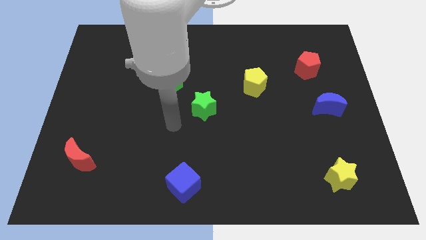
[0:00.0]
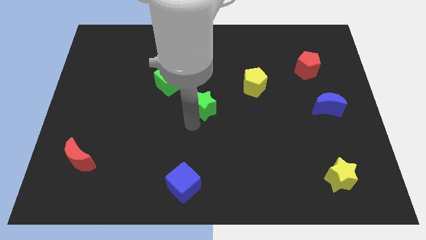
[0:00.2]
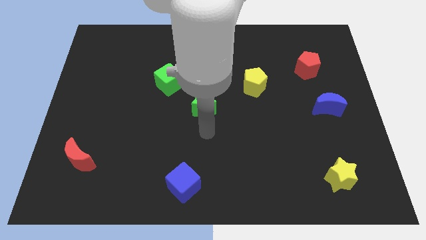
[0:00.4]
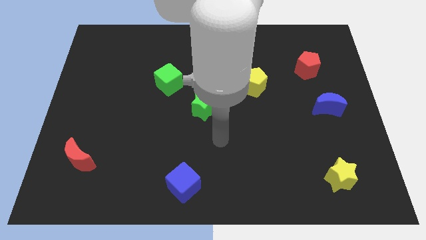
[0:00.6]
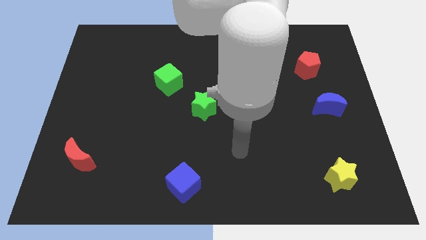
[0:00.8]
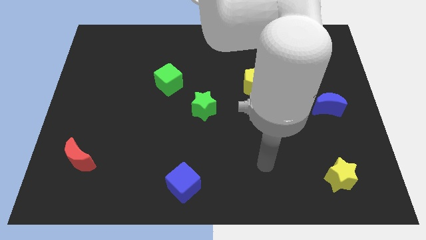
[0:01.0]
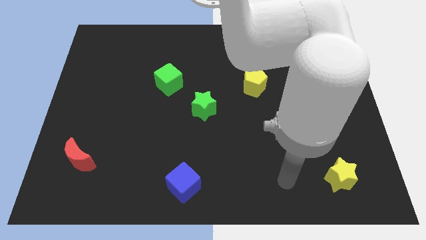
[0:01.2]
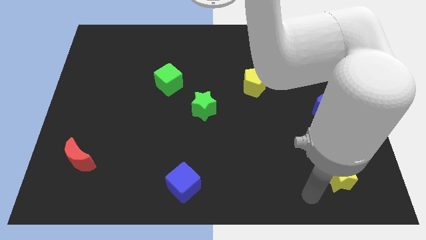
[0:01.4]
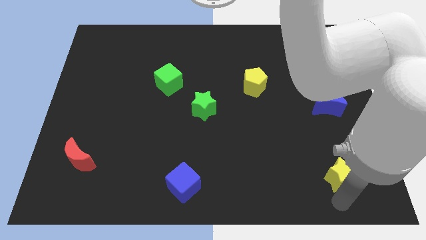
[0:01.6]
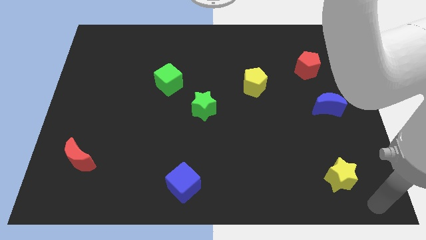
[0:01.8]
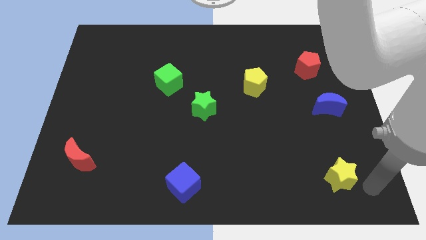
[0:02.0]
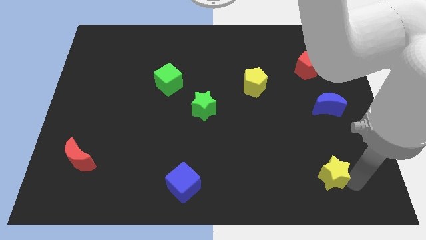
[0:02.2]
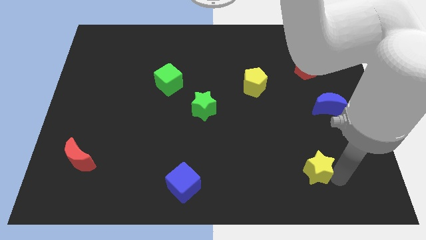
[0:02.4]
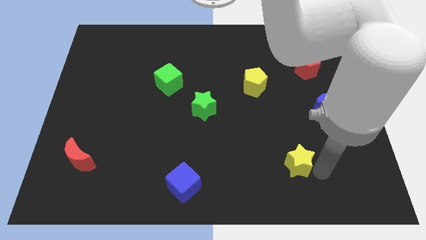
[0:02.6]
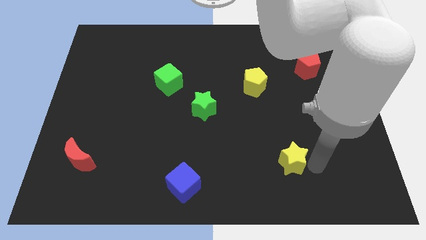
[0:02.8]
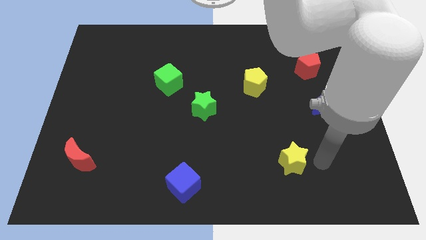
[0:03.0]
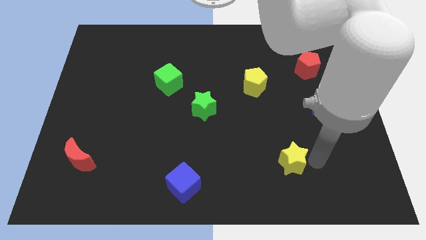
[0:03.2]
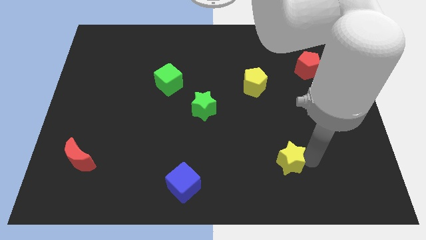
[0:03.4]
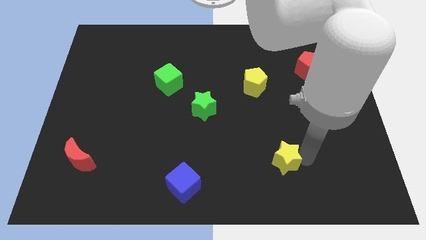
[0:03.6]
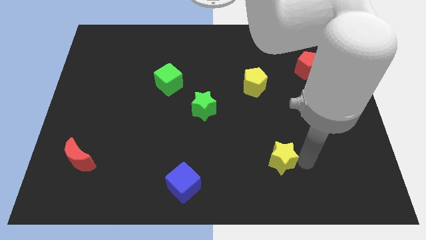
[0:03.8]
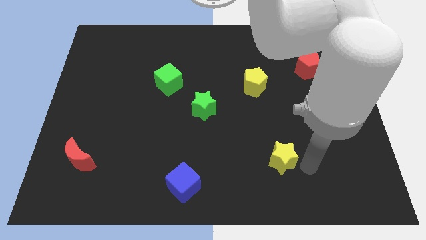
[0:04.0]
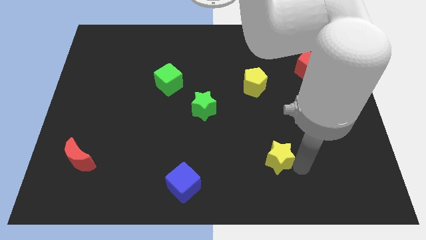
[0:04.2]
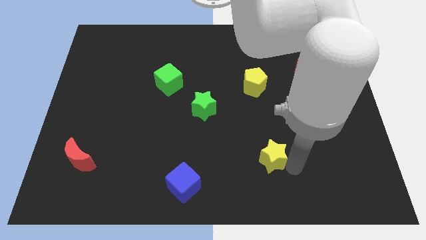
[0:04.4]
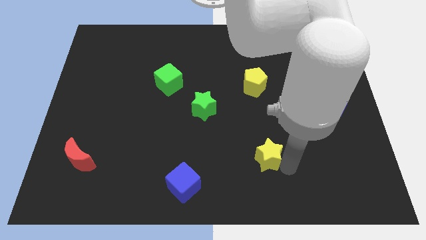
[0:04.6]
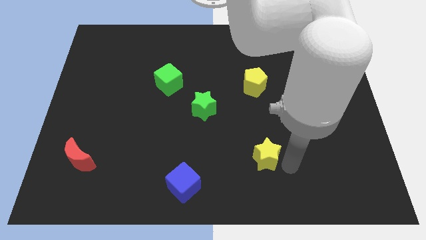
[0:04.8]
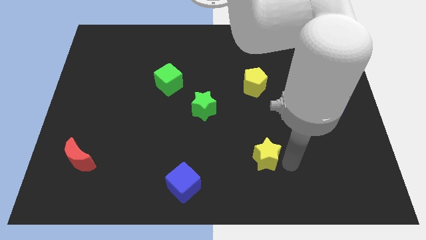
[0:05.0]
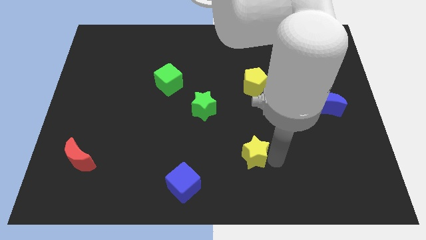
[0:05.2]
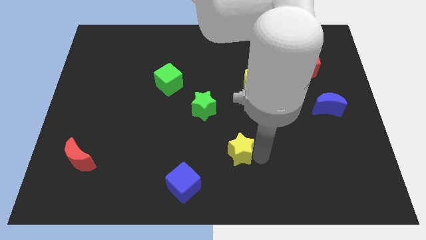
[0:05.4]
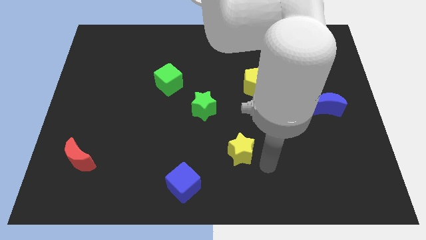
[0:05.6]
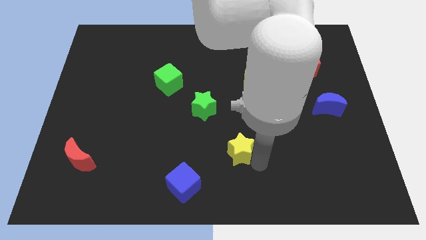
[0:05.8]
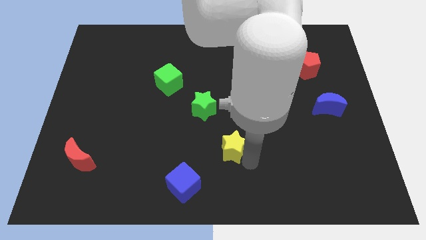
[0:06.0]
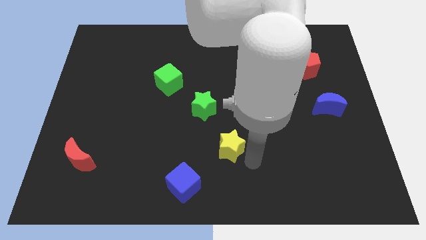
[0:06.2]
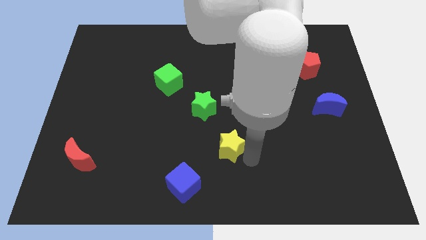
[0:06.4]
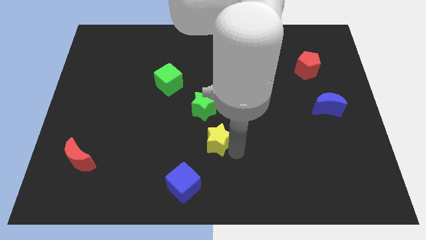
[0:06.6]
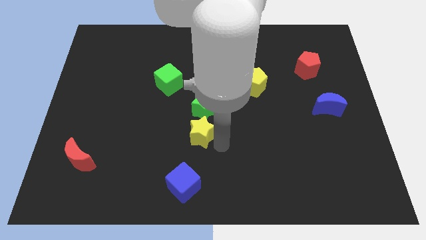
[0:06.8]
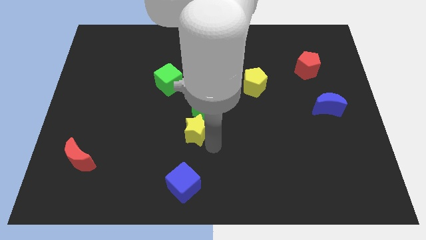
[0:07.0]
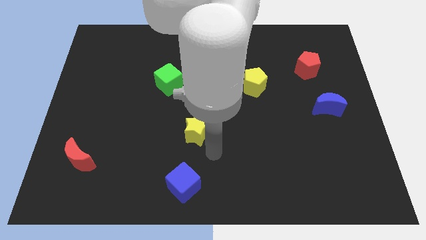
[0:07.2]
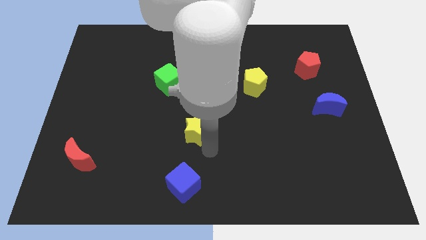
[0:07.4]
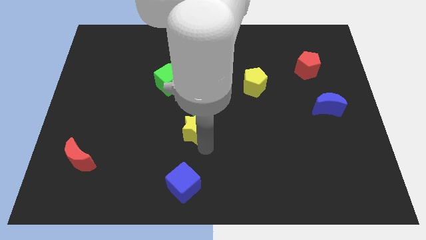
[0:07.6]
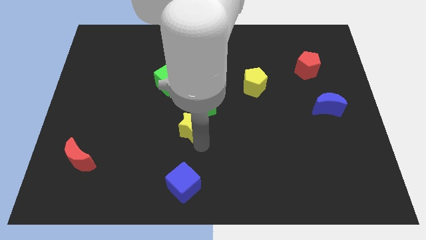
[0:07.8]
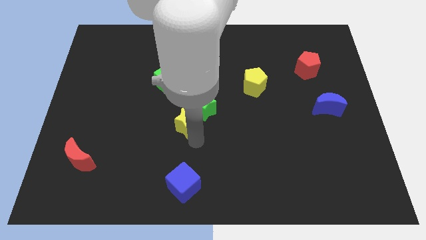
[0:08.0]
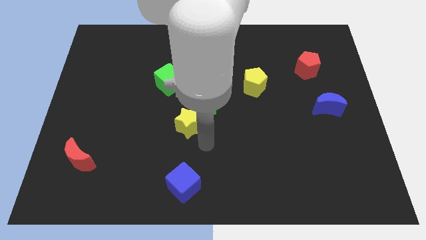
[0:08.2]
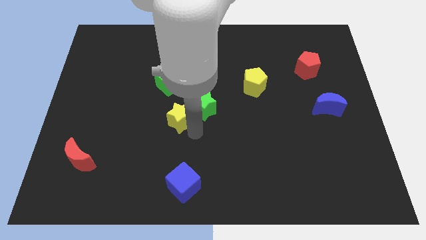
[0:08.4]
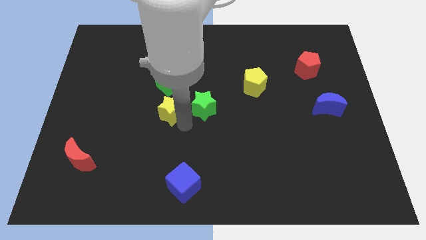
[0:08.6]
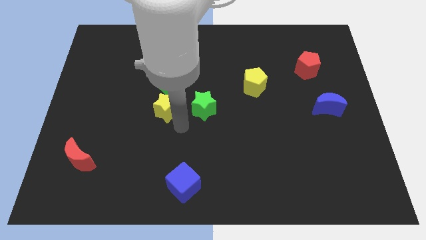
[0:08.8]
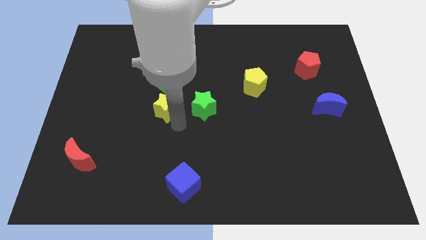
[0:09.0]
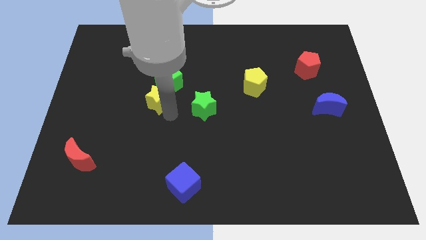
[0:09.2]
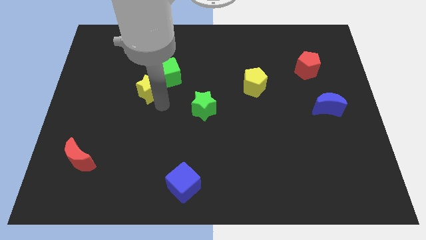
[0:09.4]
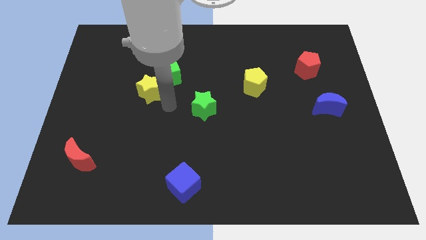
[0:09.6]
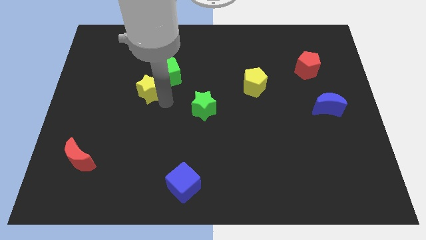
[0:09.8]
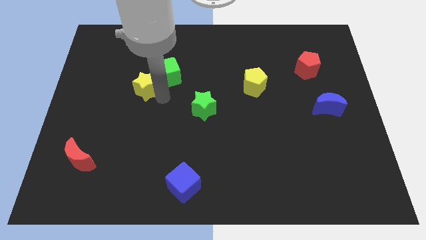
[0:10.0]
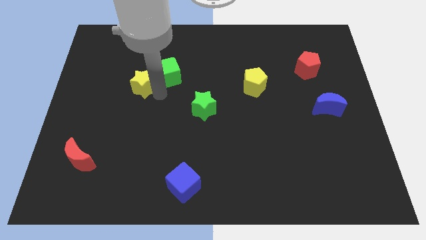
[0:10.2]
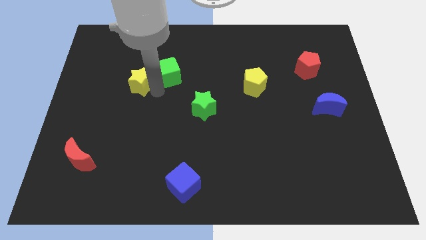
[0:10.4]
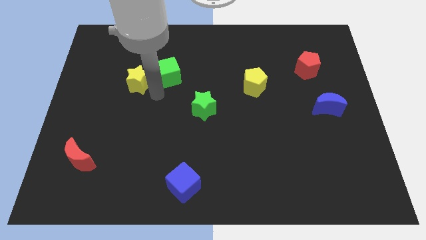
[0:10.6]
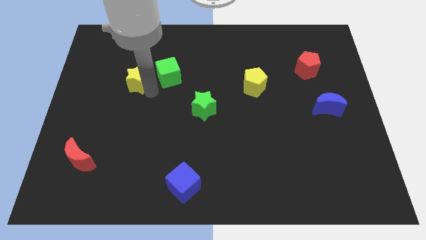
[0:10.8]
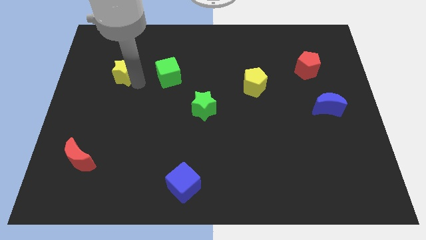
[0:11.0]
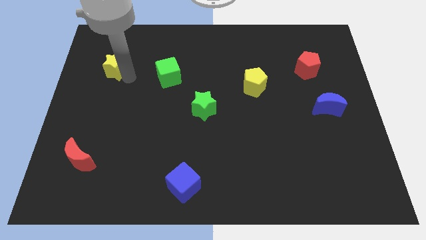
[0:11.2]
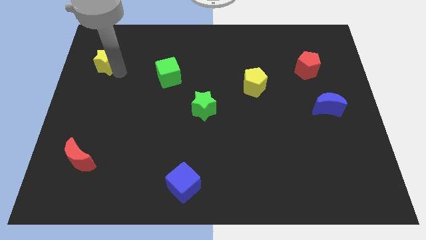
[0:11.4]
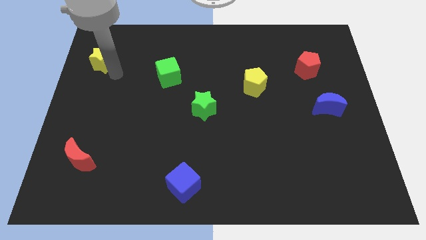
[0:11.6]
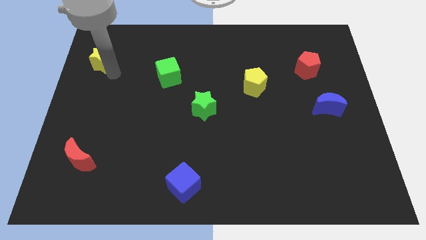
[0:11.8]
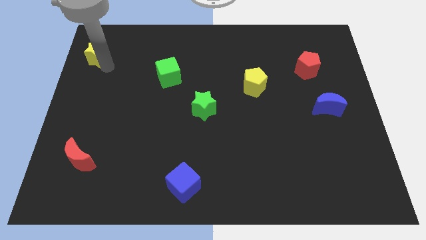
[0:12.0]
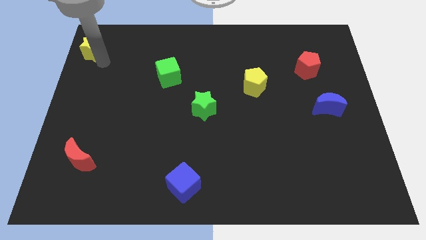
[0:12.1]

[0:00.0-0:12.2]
move the yellow star to the top left corner
